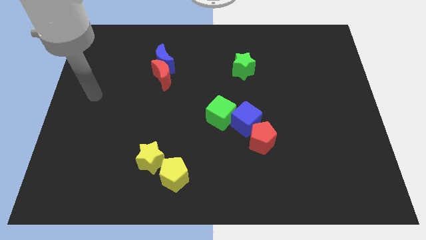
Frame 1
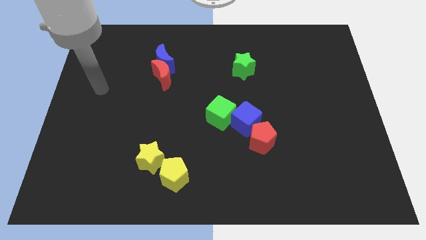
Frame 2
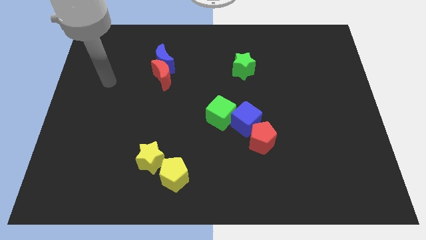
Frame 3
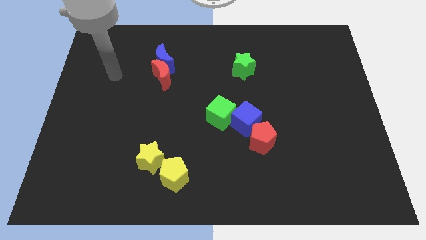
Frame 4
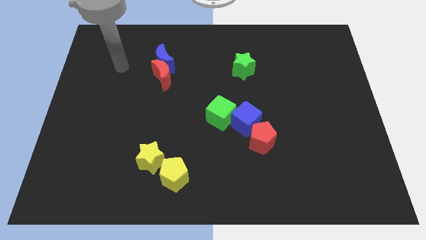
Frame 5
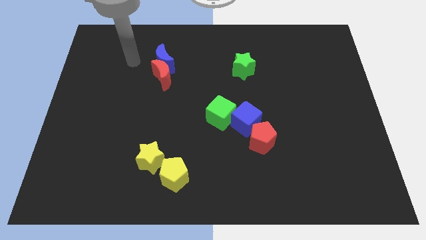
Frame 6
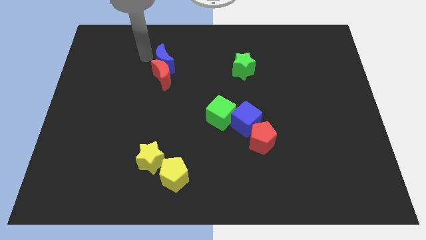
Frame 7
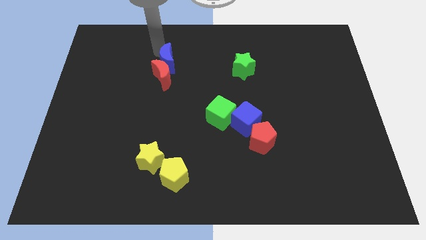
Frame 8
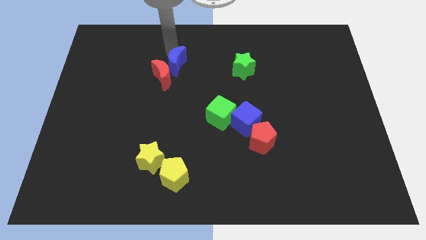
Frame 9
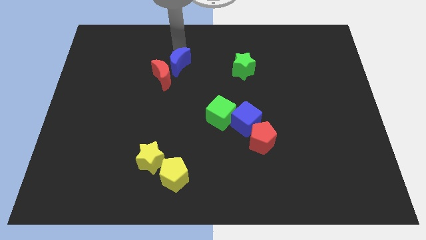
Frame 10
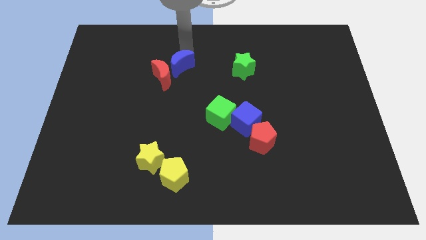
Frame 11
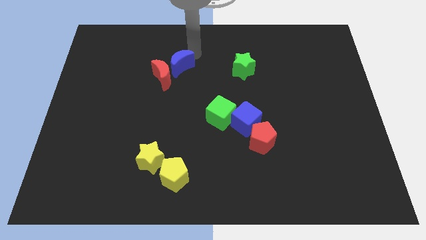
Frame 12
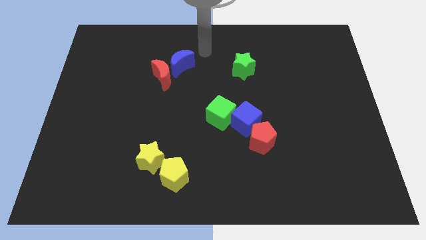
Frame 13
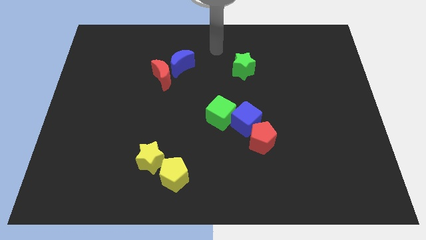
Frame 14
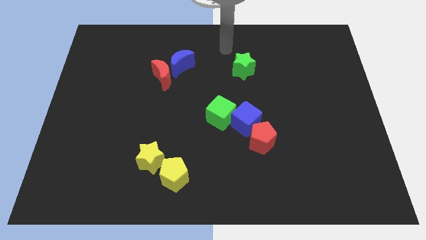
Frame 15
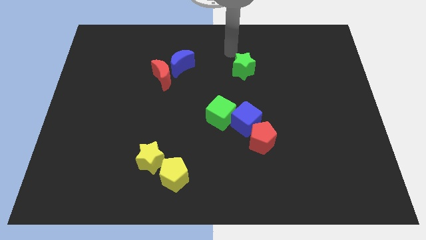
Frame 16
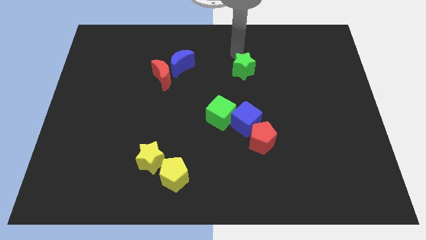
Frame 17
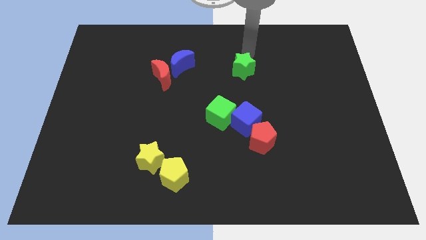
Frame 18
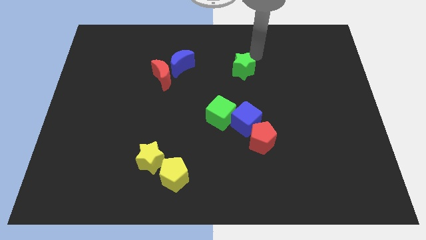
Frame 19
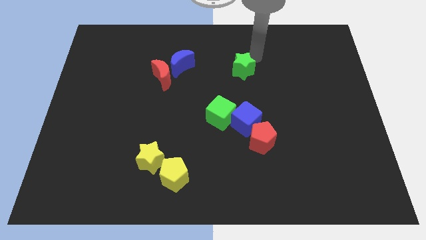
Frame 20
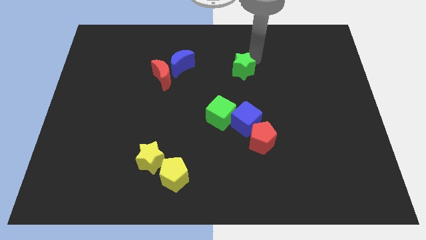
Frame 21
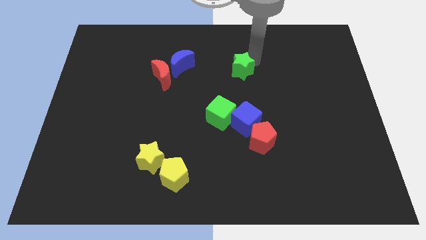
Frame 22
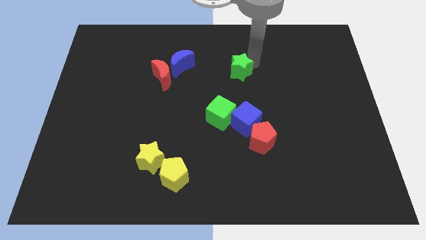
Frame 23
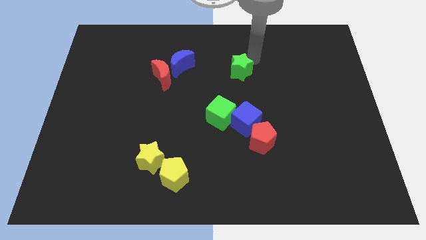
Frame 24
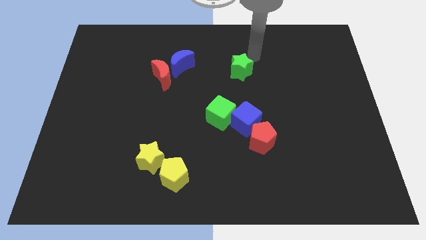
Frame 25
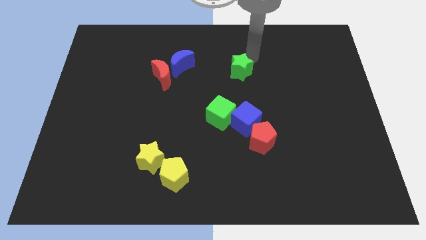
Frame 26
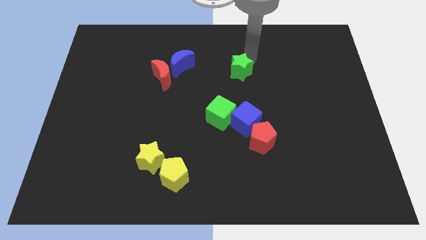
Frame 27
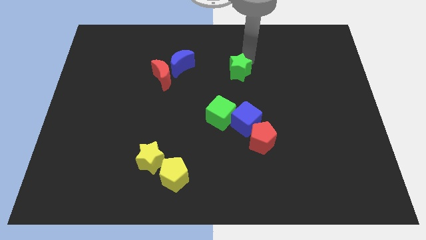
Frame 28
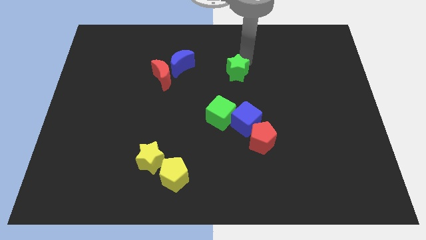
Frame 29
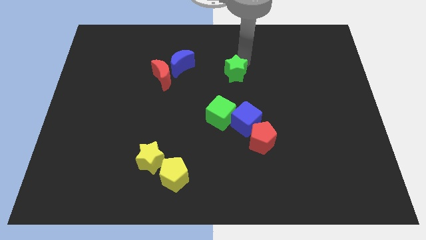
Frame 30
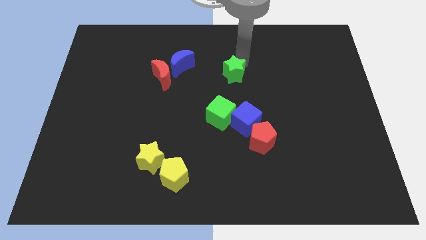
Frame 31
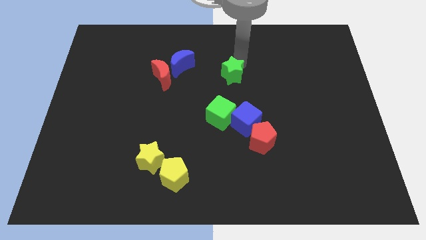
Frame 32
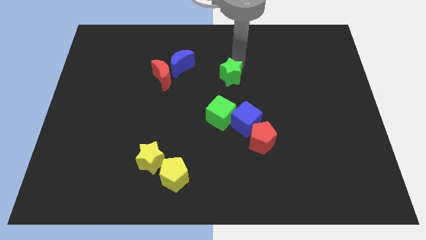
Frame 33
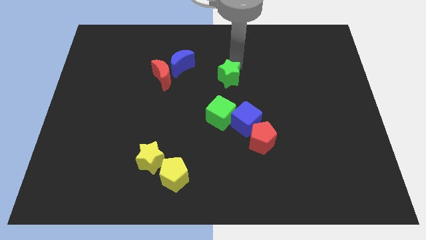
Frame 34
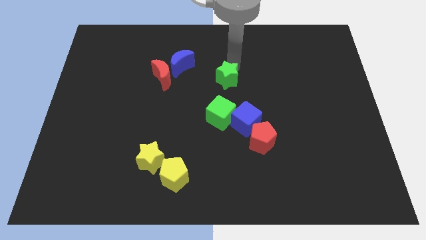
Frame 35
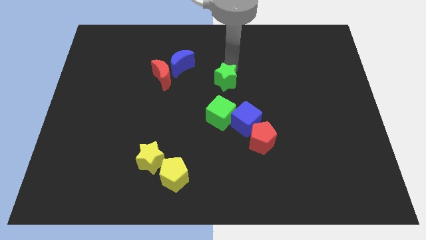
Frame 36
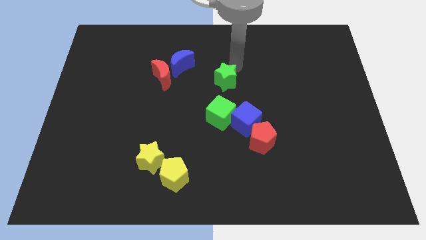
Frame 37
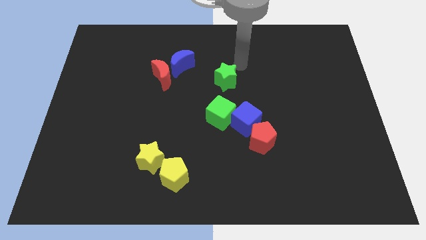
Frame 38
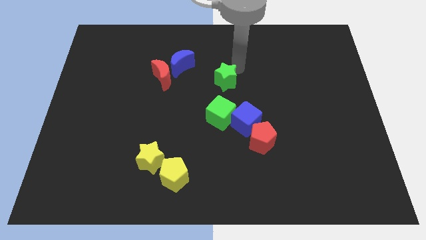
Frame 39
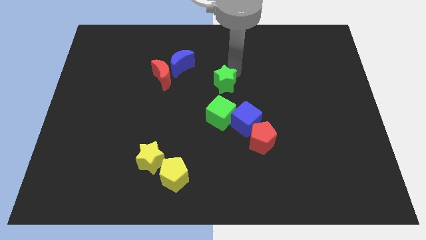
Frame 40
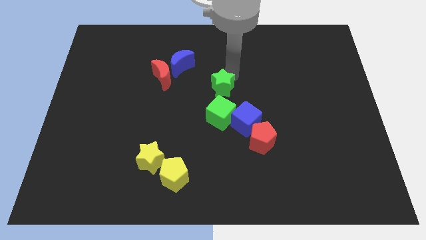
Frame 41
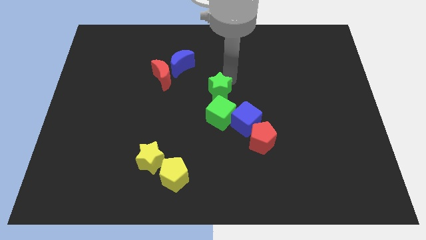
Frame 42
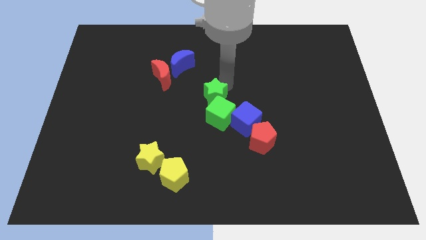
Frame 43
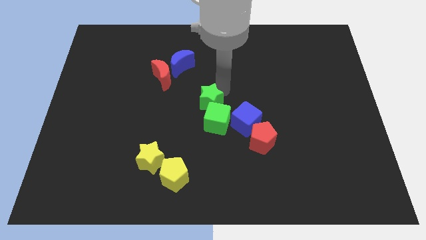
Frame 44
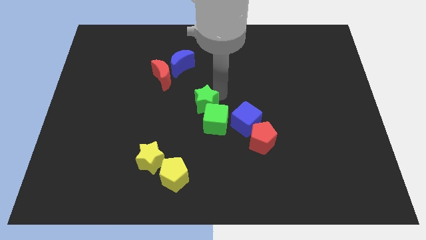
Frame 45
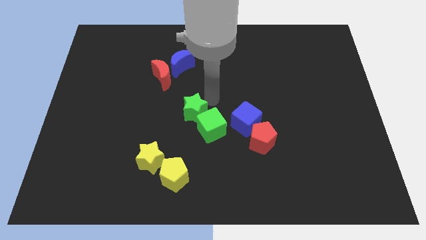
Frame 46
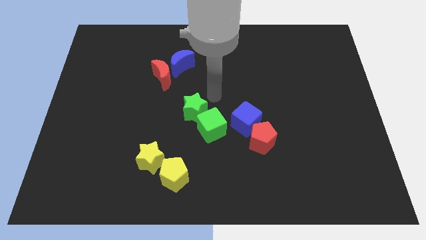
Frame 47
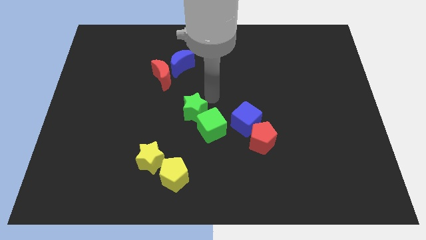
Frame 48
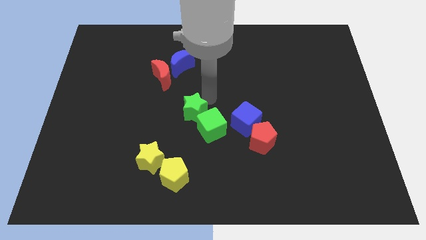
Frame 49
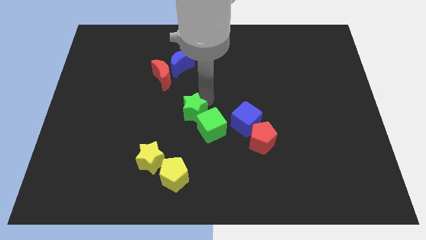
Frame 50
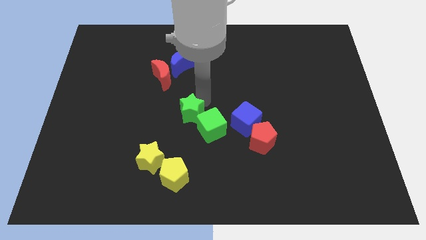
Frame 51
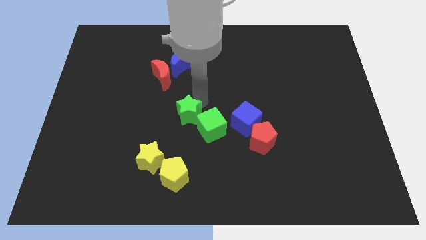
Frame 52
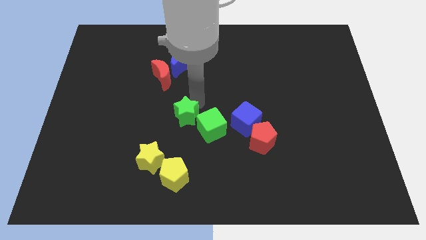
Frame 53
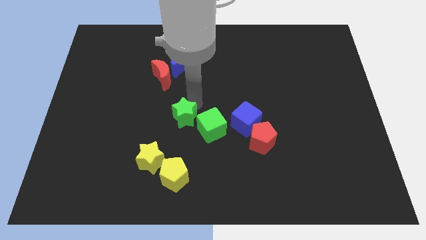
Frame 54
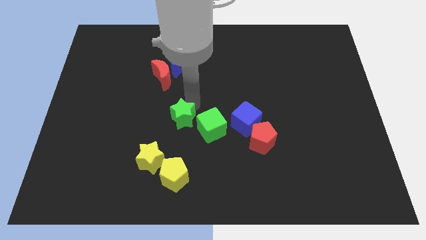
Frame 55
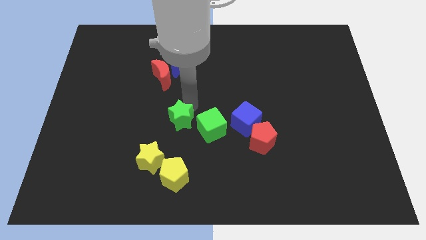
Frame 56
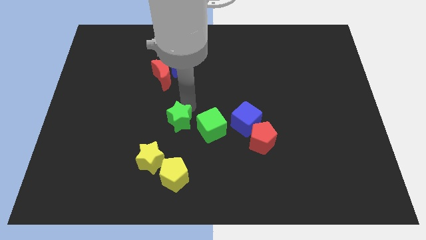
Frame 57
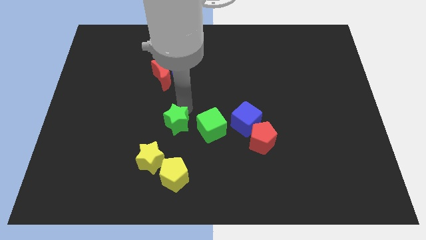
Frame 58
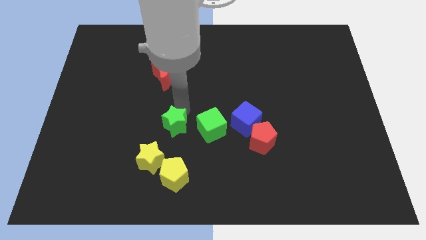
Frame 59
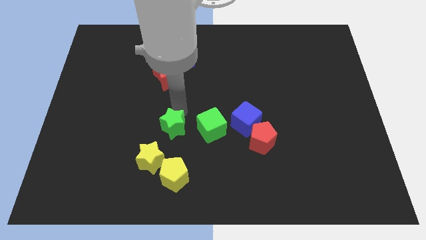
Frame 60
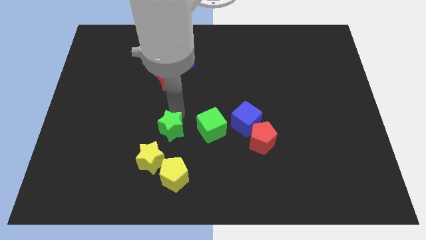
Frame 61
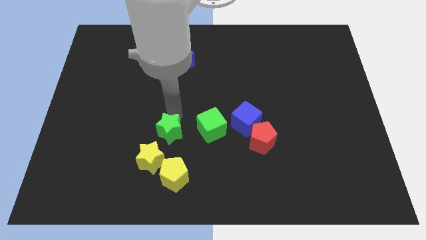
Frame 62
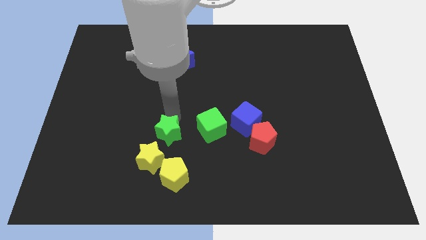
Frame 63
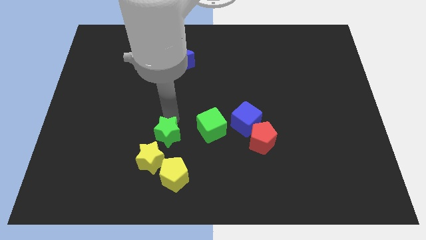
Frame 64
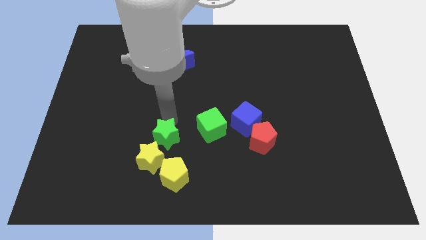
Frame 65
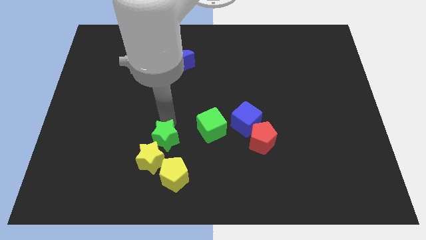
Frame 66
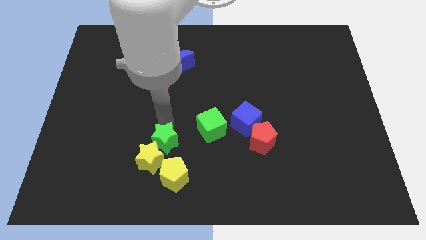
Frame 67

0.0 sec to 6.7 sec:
slide the green star towards the yellow star
